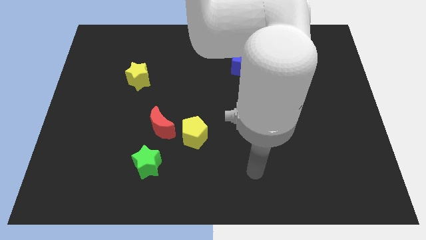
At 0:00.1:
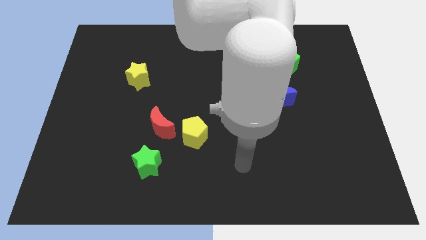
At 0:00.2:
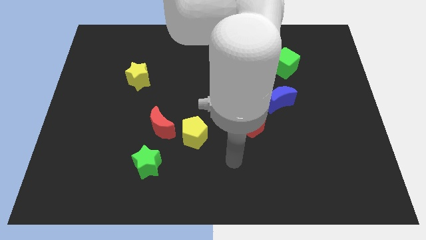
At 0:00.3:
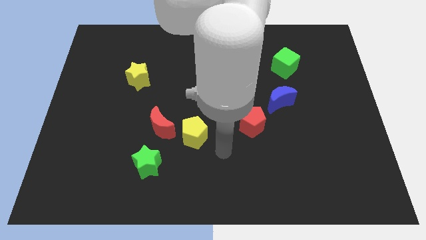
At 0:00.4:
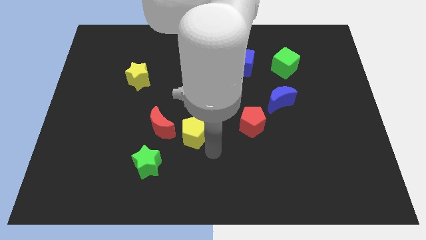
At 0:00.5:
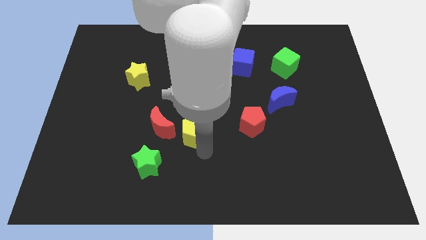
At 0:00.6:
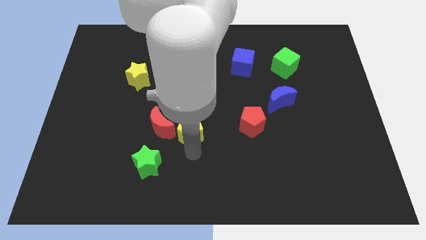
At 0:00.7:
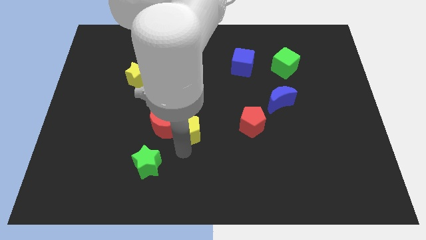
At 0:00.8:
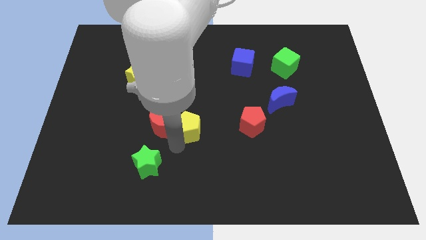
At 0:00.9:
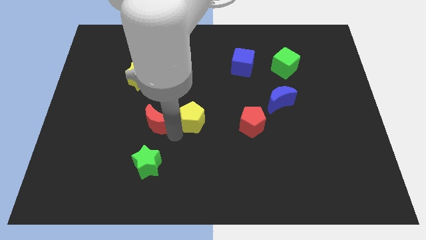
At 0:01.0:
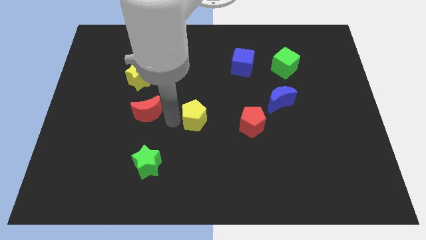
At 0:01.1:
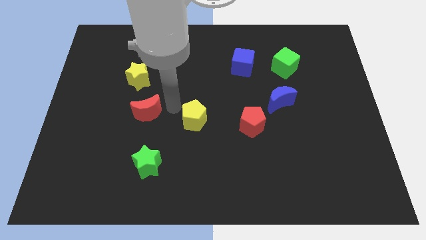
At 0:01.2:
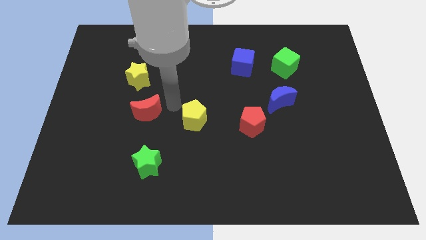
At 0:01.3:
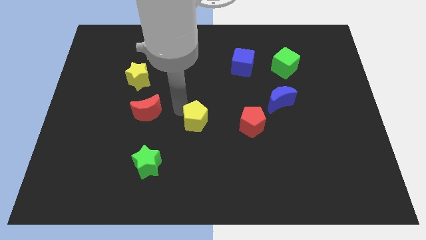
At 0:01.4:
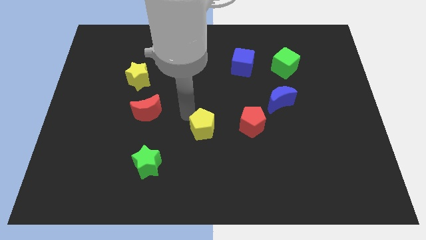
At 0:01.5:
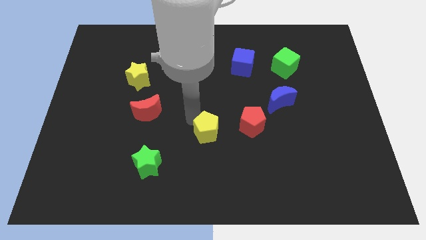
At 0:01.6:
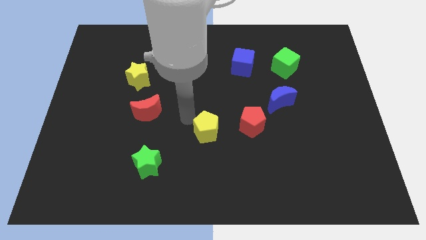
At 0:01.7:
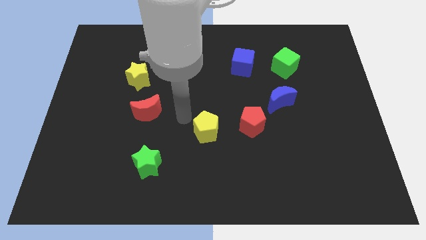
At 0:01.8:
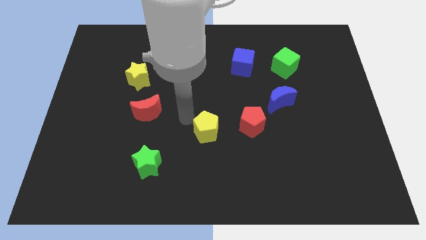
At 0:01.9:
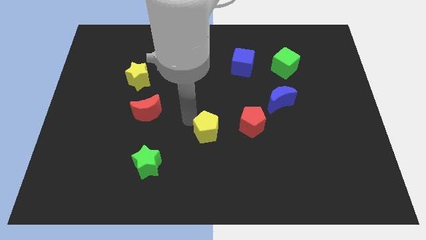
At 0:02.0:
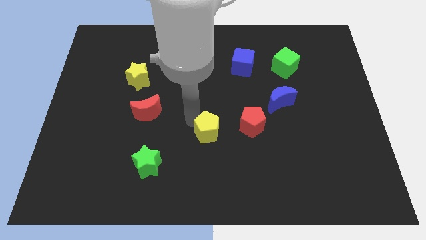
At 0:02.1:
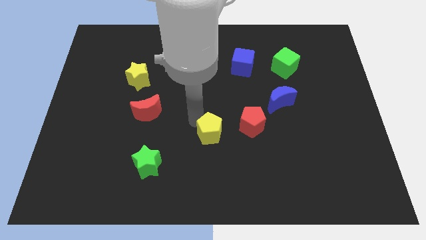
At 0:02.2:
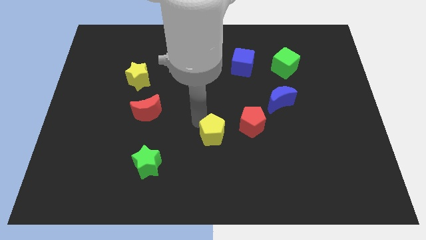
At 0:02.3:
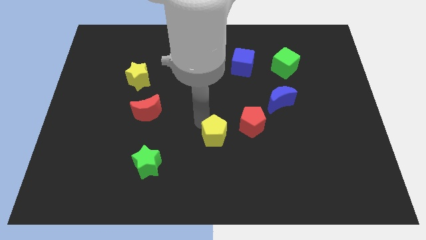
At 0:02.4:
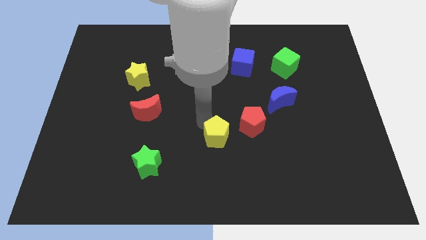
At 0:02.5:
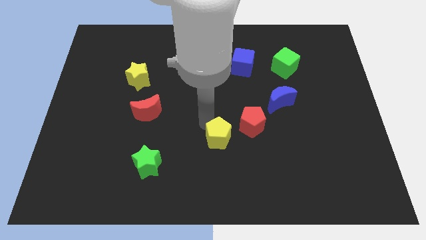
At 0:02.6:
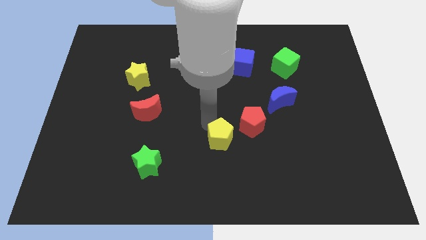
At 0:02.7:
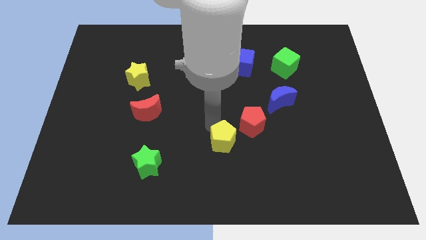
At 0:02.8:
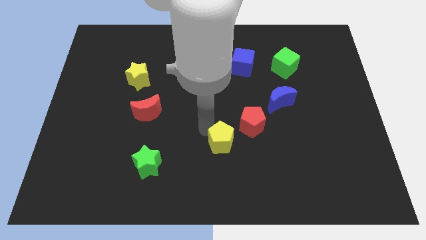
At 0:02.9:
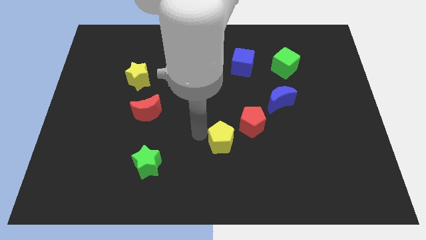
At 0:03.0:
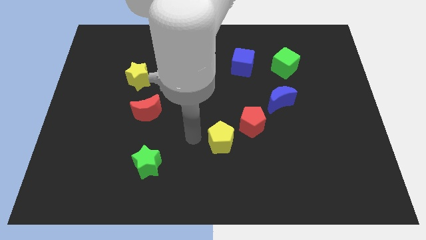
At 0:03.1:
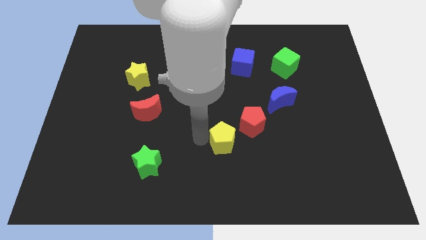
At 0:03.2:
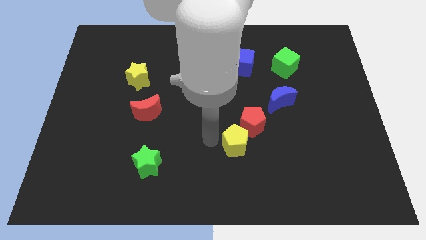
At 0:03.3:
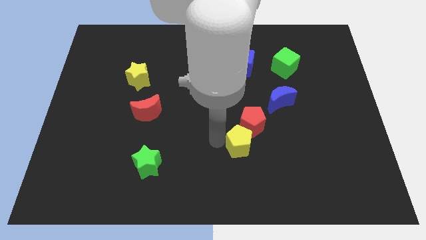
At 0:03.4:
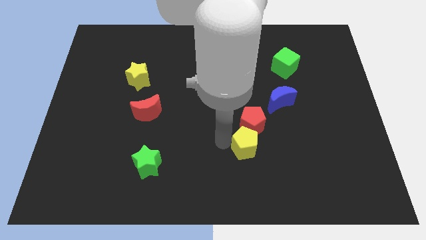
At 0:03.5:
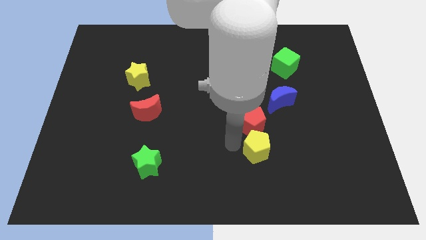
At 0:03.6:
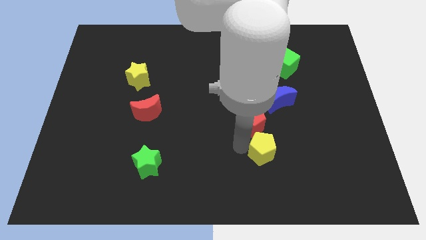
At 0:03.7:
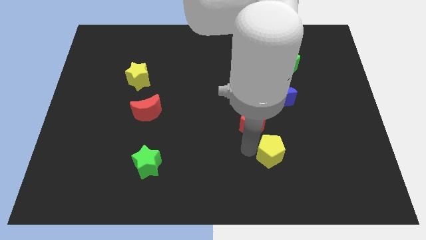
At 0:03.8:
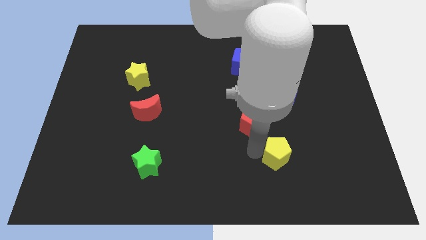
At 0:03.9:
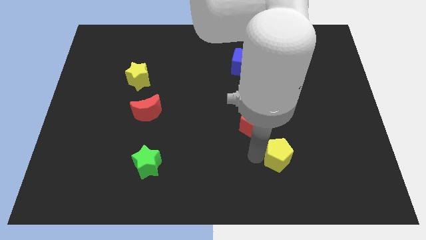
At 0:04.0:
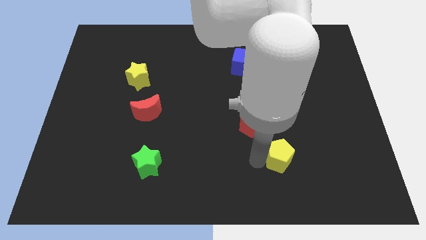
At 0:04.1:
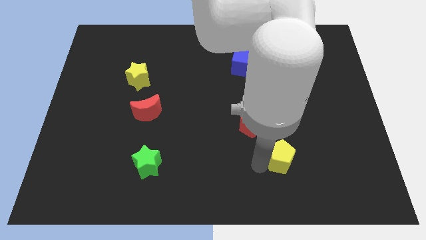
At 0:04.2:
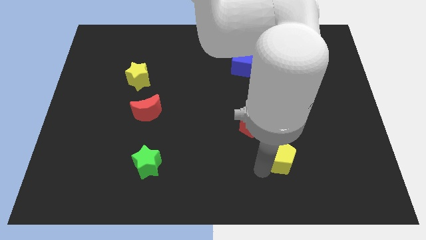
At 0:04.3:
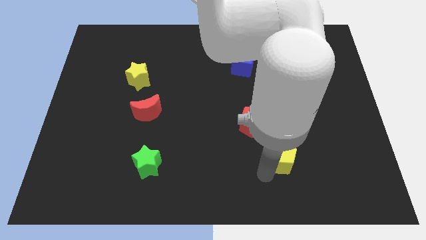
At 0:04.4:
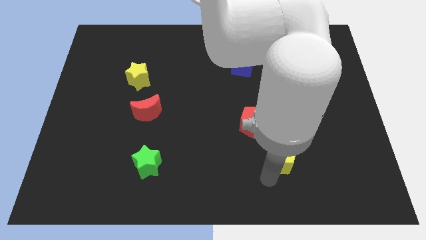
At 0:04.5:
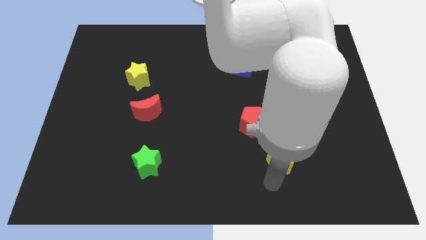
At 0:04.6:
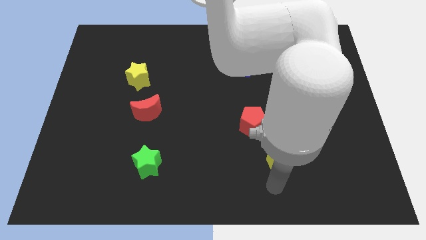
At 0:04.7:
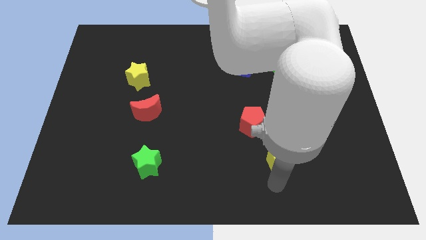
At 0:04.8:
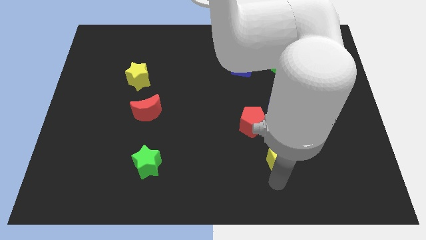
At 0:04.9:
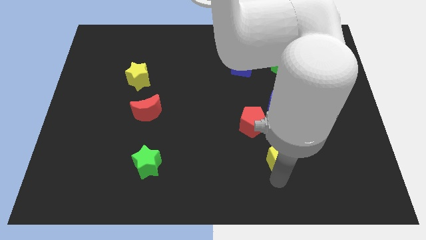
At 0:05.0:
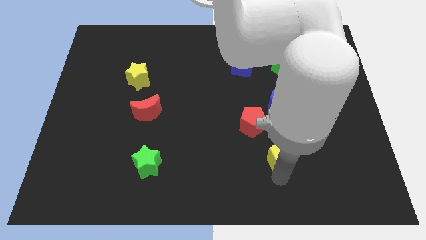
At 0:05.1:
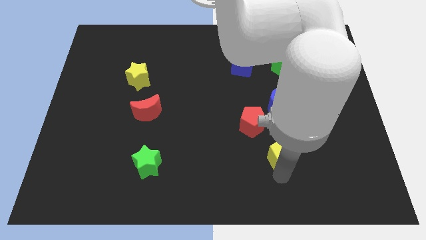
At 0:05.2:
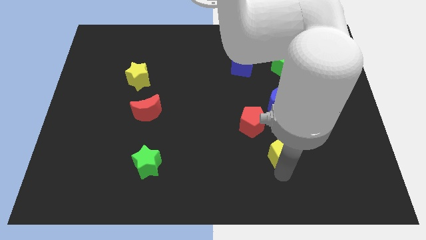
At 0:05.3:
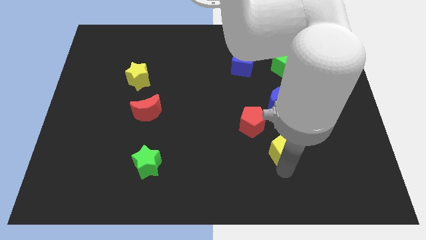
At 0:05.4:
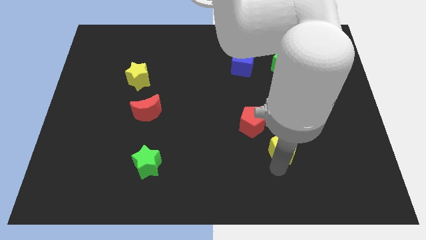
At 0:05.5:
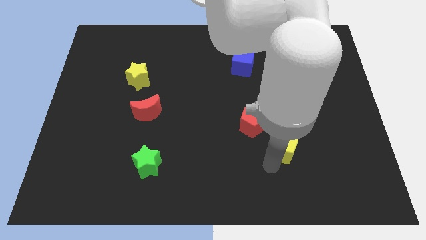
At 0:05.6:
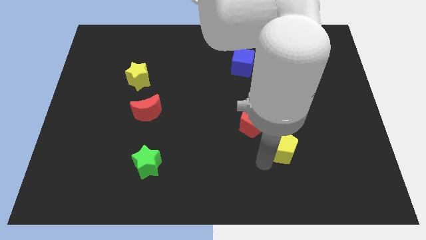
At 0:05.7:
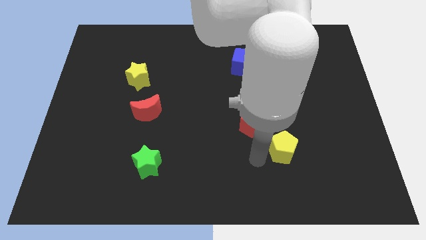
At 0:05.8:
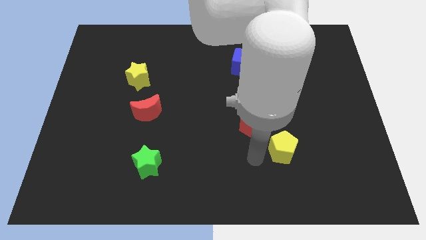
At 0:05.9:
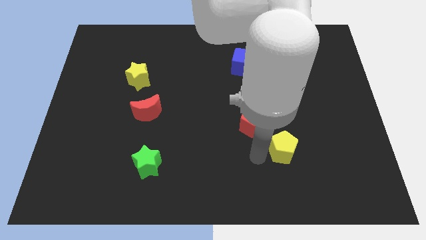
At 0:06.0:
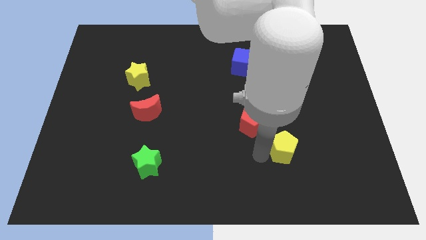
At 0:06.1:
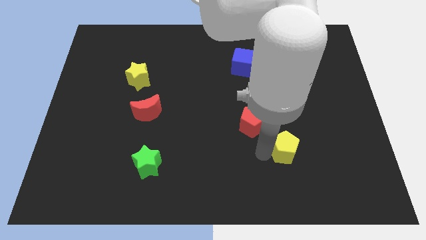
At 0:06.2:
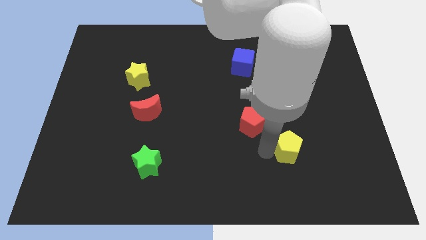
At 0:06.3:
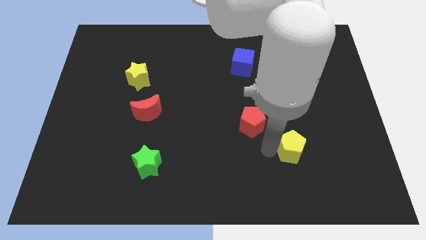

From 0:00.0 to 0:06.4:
slide the yellow pentagon right

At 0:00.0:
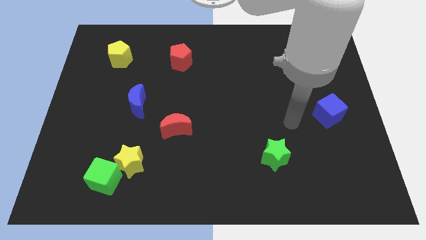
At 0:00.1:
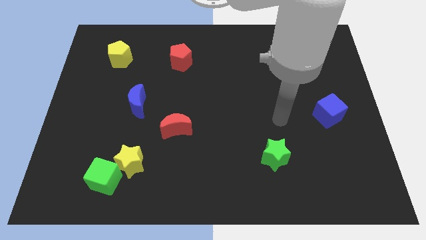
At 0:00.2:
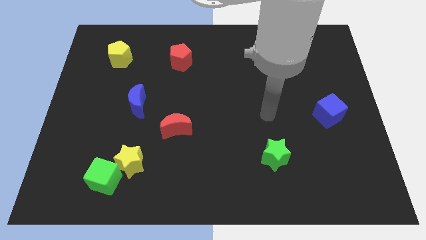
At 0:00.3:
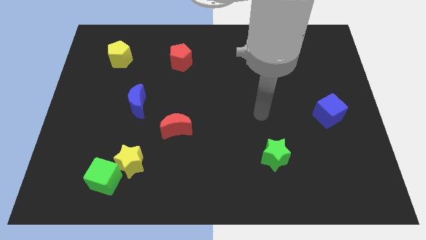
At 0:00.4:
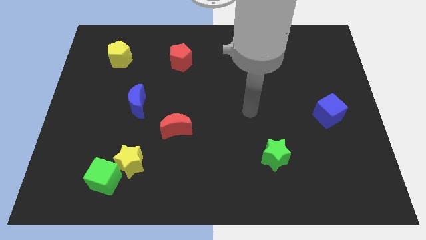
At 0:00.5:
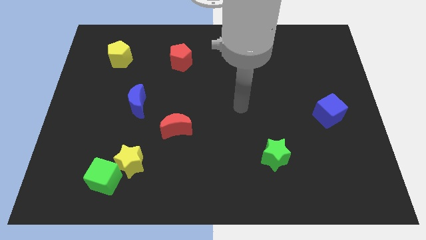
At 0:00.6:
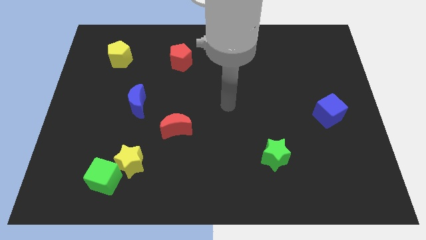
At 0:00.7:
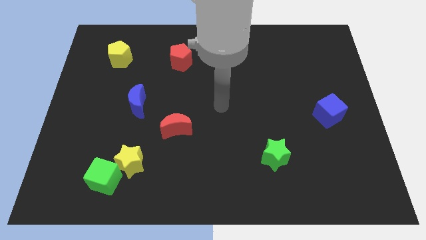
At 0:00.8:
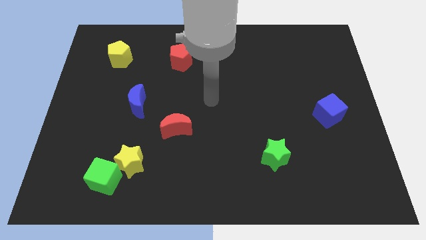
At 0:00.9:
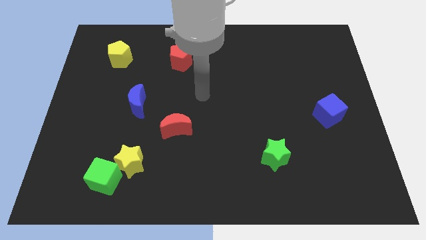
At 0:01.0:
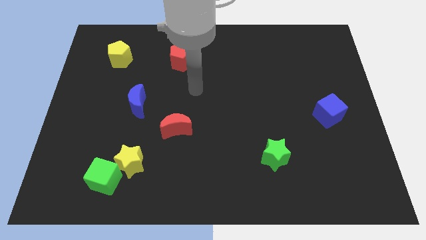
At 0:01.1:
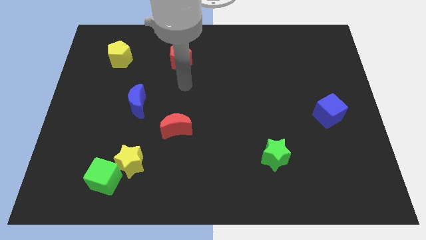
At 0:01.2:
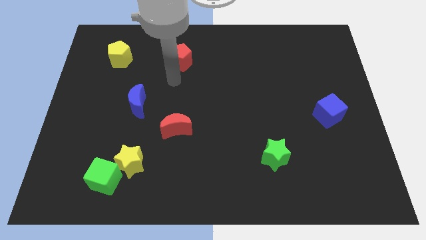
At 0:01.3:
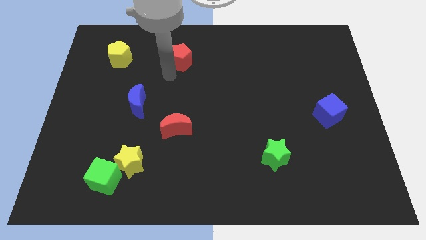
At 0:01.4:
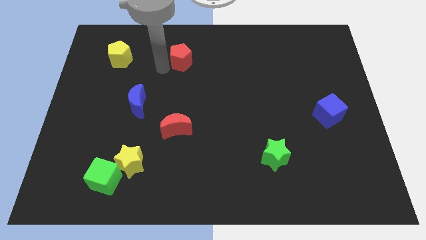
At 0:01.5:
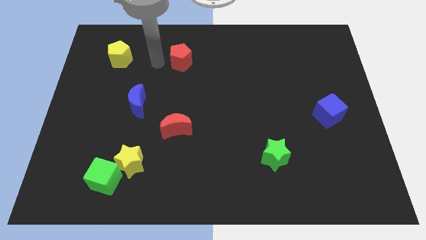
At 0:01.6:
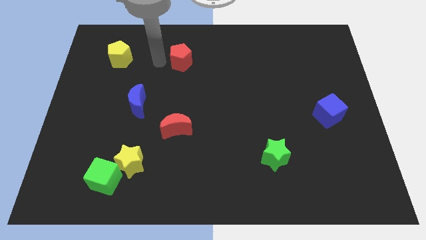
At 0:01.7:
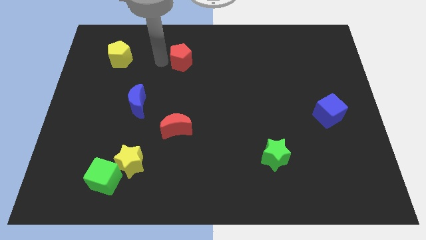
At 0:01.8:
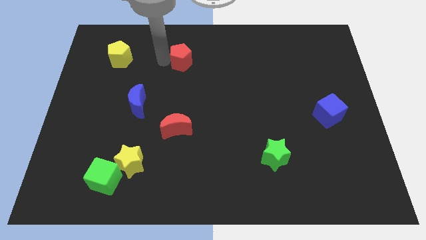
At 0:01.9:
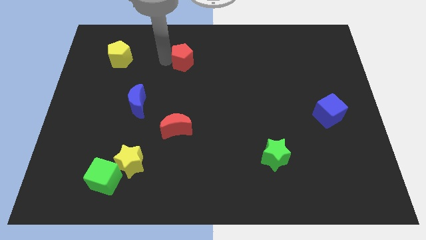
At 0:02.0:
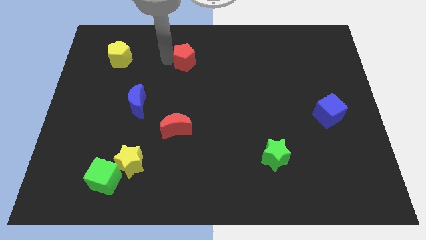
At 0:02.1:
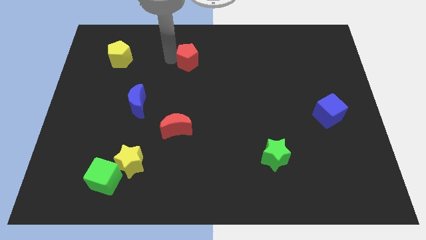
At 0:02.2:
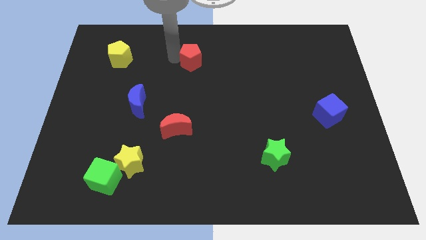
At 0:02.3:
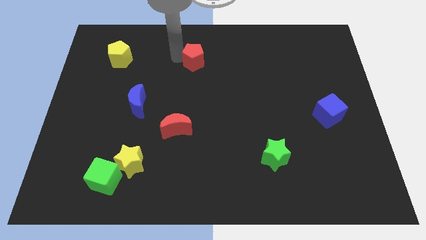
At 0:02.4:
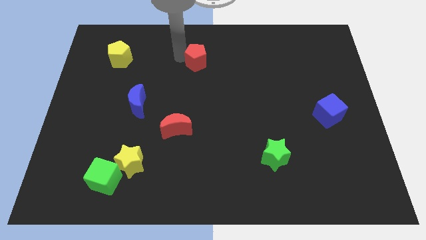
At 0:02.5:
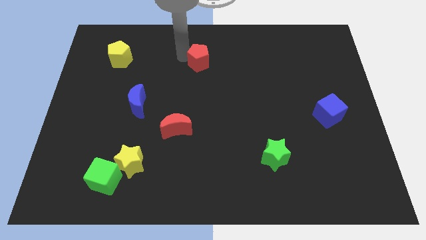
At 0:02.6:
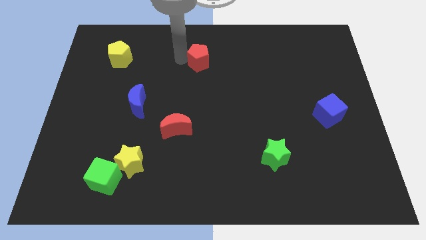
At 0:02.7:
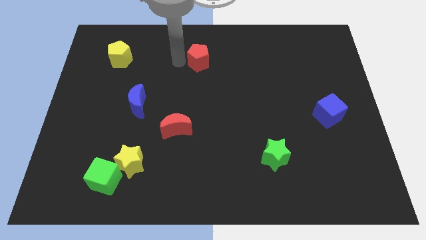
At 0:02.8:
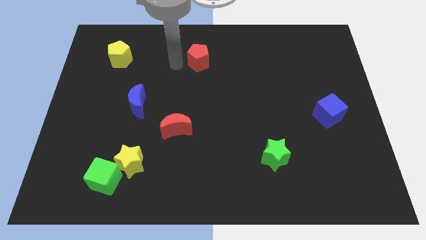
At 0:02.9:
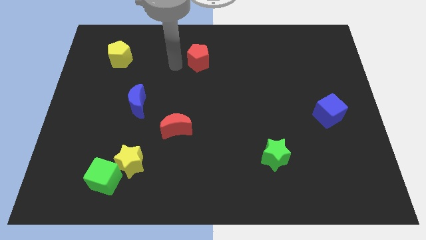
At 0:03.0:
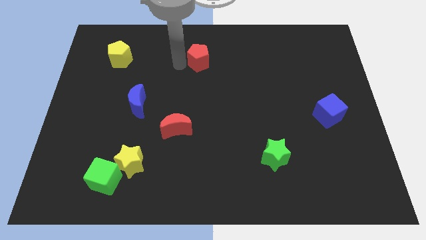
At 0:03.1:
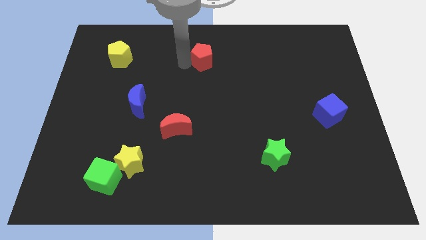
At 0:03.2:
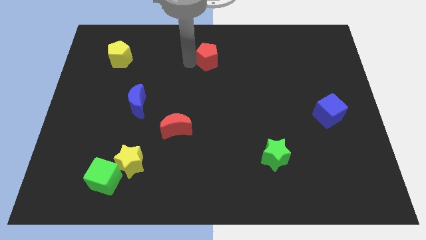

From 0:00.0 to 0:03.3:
slide the red pentagon a bit right
